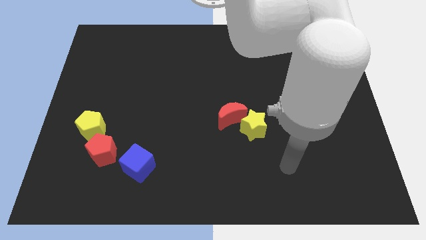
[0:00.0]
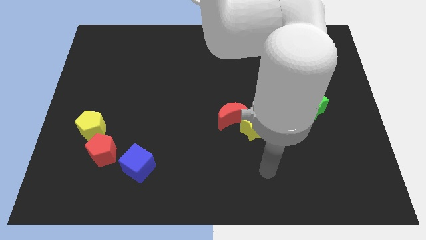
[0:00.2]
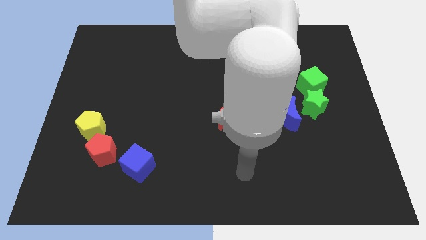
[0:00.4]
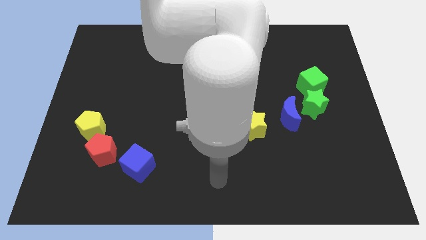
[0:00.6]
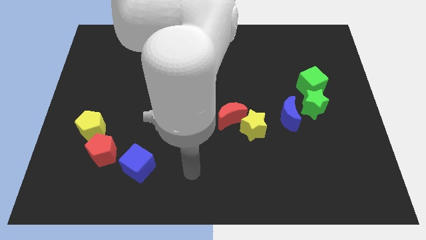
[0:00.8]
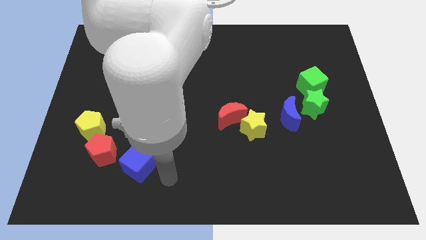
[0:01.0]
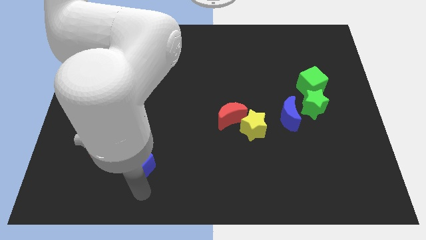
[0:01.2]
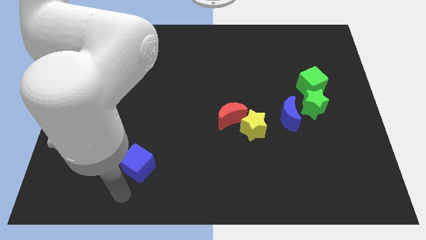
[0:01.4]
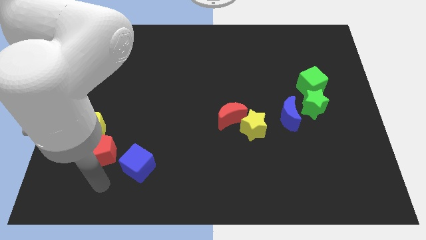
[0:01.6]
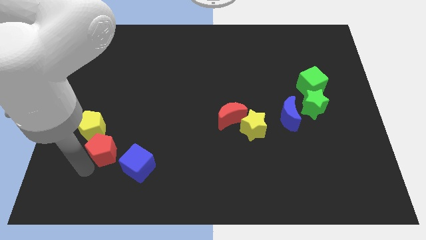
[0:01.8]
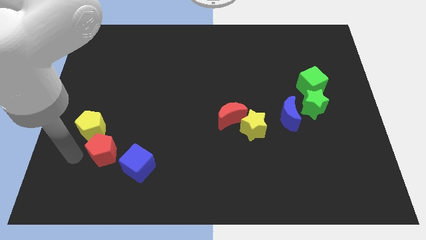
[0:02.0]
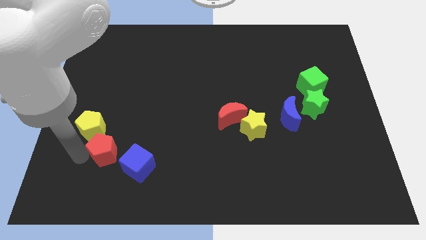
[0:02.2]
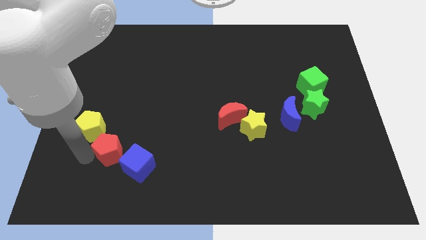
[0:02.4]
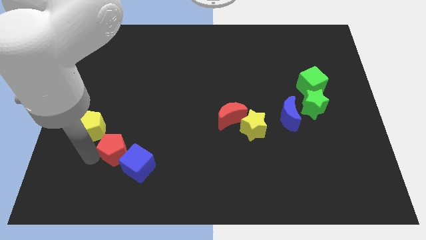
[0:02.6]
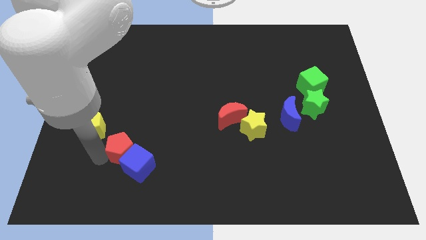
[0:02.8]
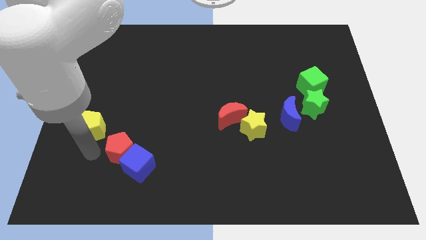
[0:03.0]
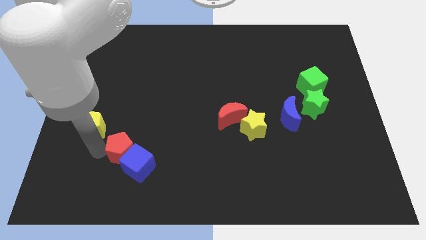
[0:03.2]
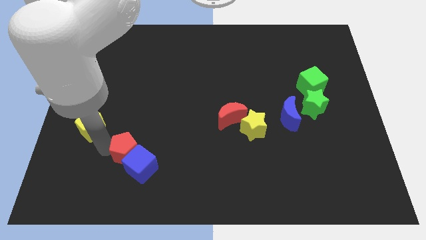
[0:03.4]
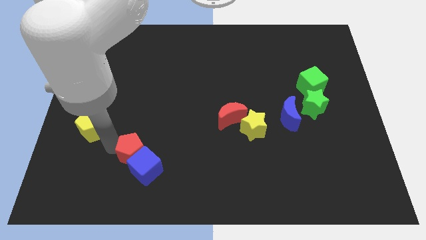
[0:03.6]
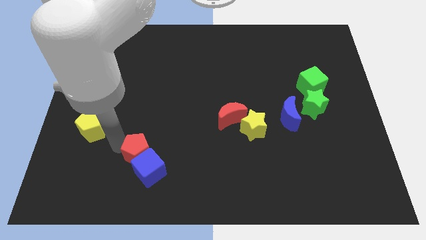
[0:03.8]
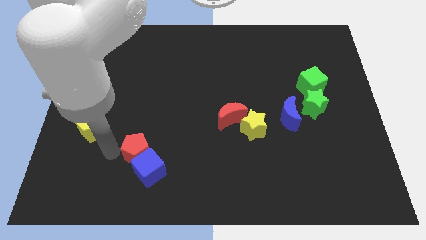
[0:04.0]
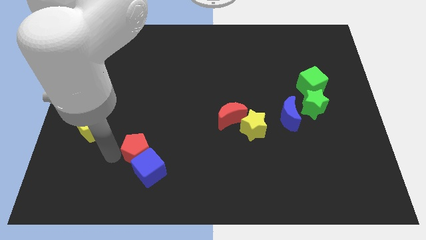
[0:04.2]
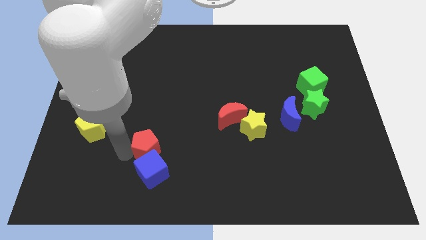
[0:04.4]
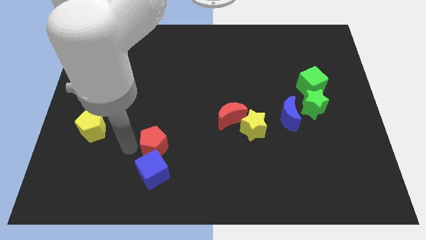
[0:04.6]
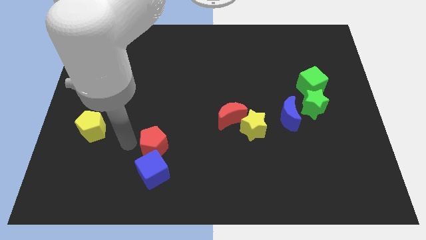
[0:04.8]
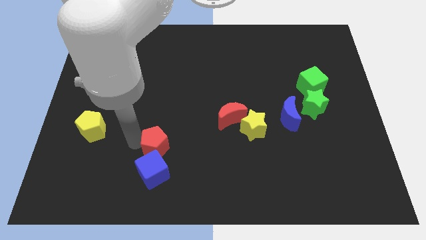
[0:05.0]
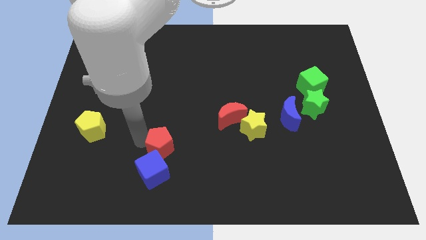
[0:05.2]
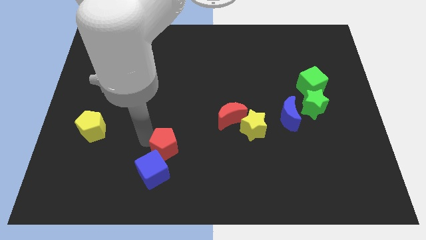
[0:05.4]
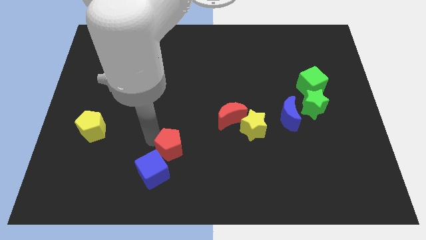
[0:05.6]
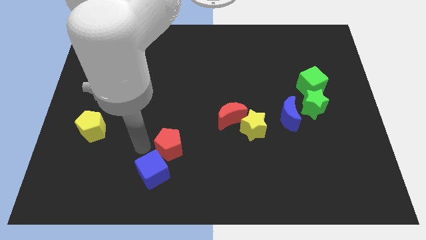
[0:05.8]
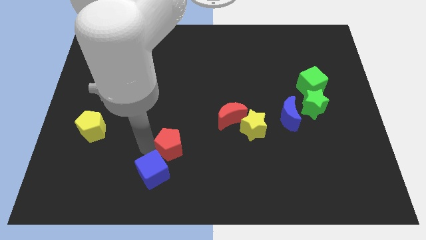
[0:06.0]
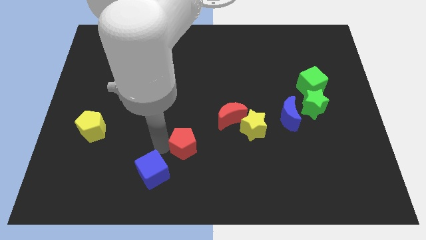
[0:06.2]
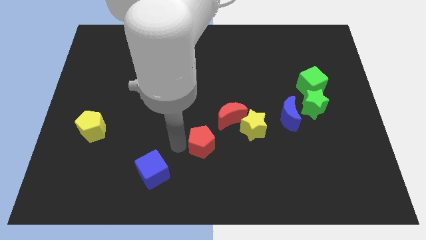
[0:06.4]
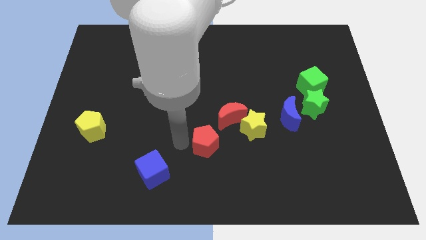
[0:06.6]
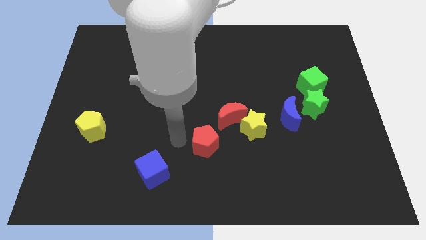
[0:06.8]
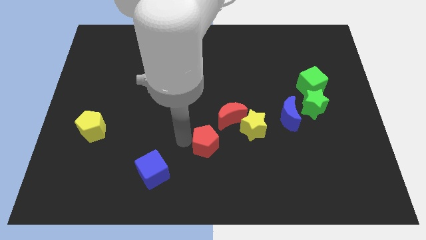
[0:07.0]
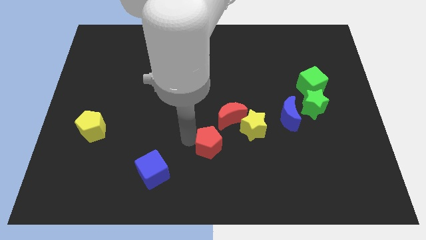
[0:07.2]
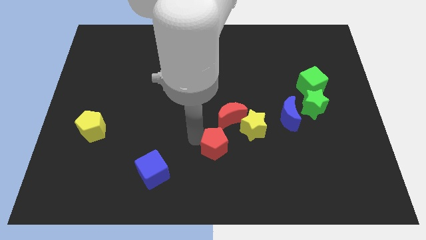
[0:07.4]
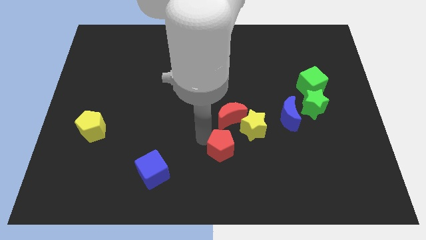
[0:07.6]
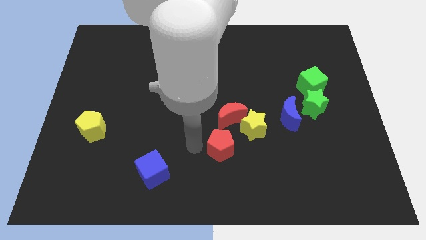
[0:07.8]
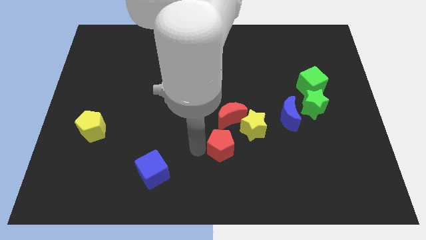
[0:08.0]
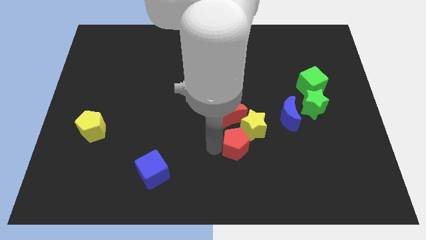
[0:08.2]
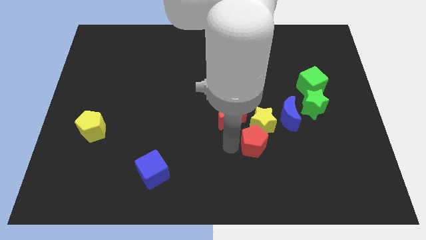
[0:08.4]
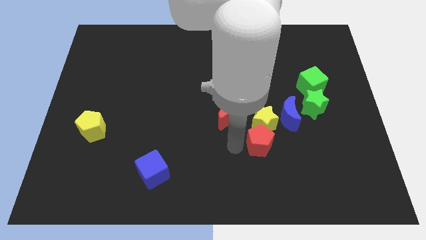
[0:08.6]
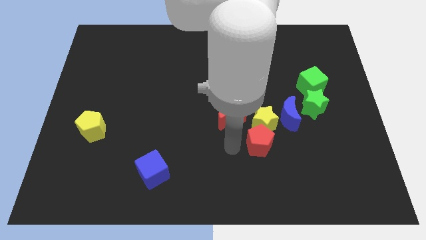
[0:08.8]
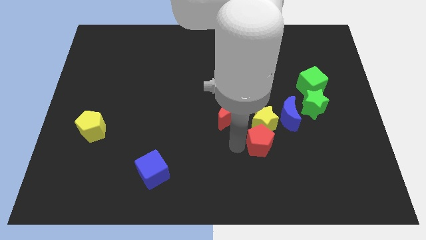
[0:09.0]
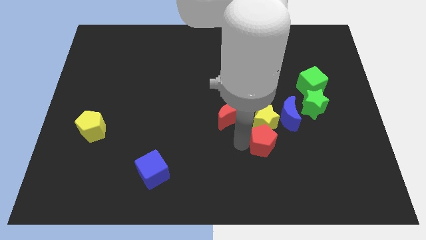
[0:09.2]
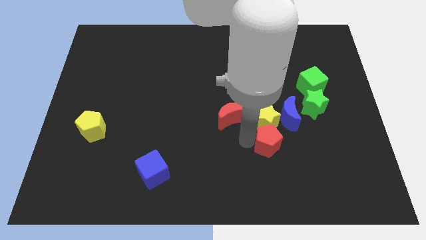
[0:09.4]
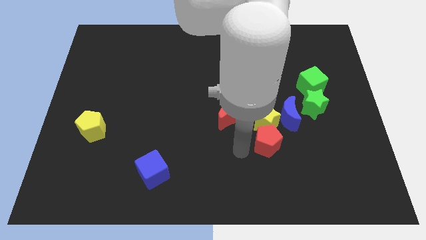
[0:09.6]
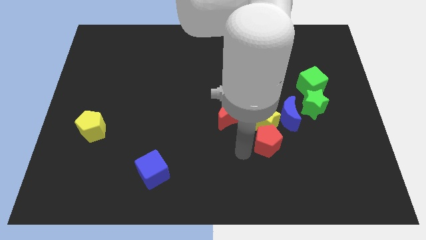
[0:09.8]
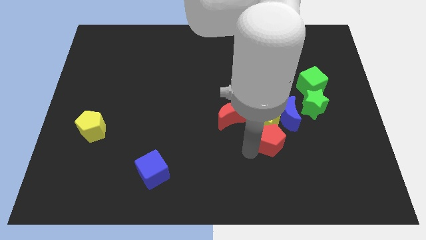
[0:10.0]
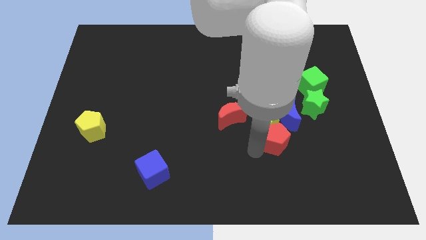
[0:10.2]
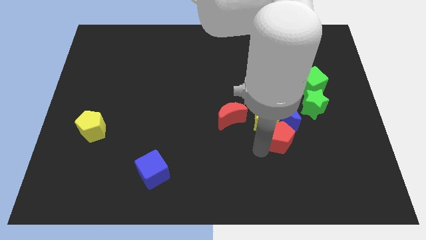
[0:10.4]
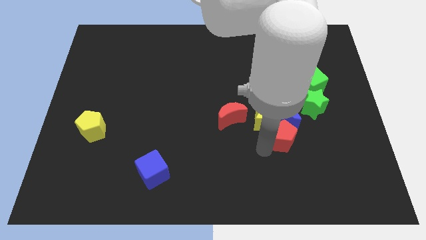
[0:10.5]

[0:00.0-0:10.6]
slide the red pentagon close to the blue moon

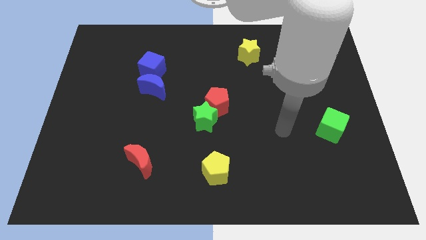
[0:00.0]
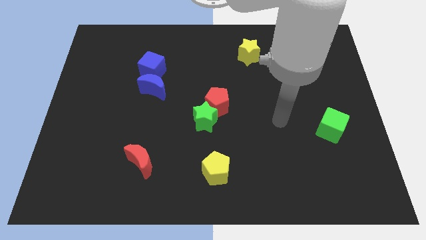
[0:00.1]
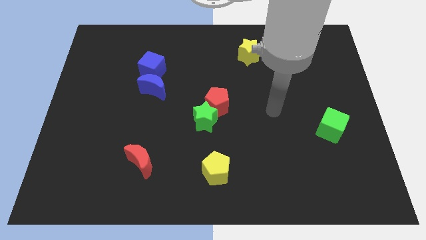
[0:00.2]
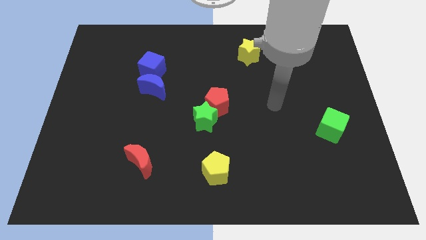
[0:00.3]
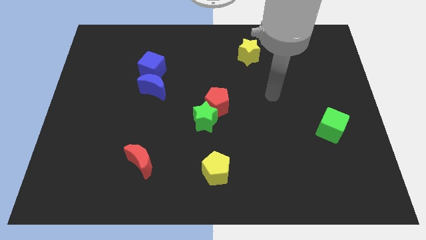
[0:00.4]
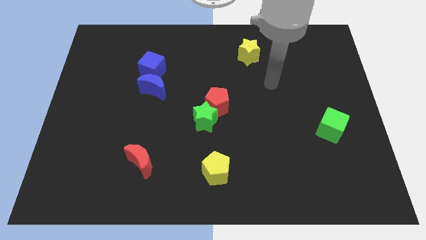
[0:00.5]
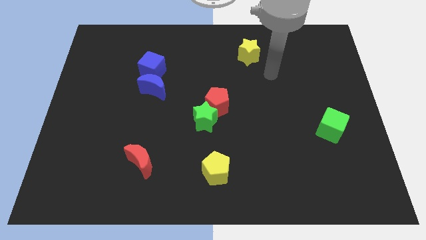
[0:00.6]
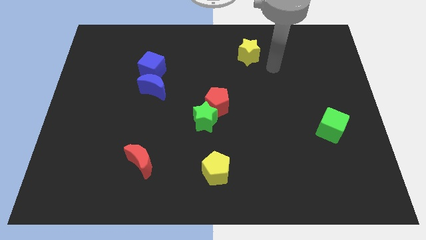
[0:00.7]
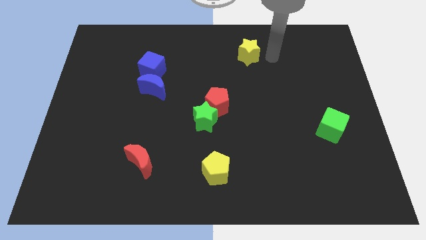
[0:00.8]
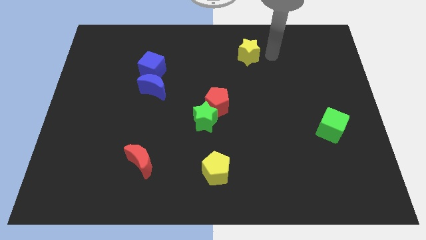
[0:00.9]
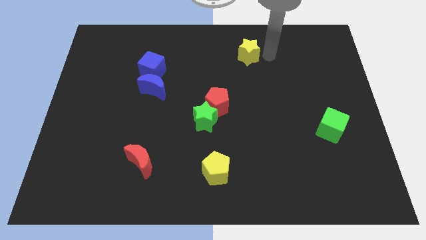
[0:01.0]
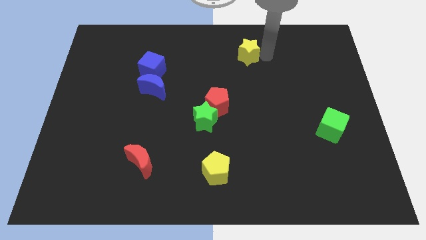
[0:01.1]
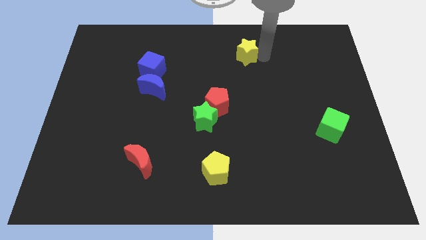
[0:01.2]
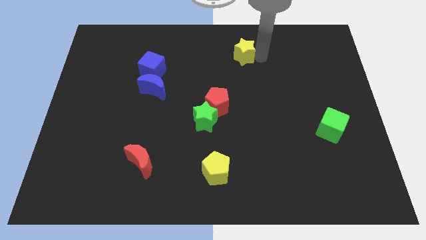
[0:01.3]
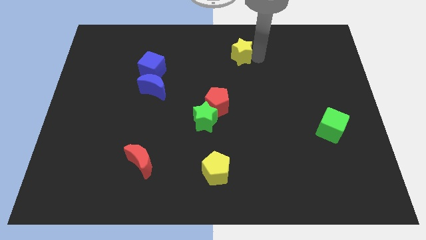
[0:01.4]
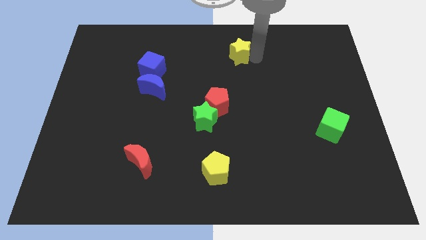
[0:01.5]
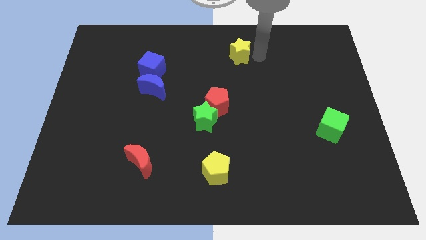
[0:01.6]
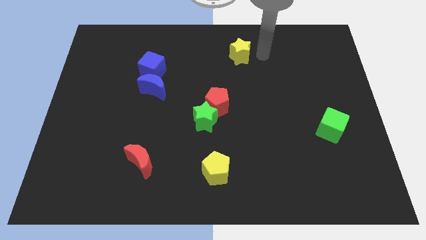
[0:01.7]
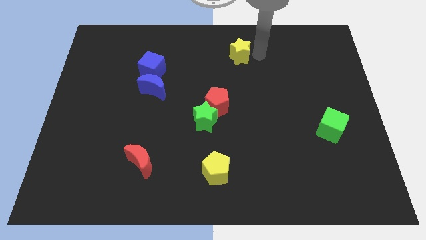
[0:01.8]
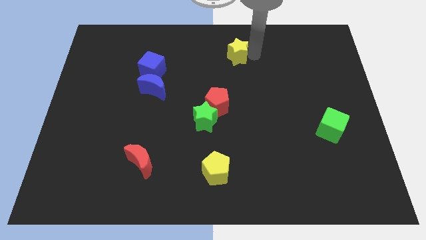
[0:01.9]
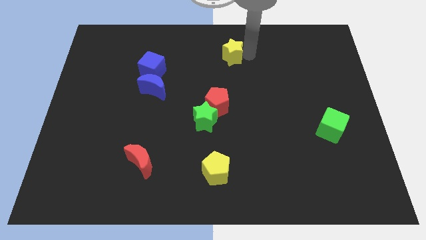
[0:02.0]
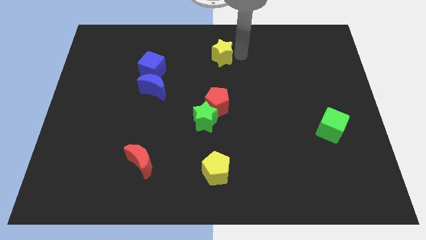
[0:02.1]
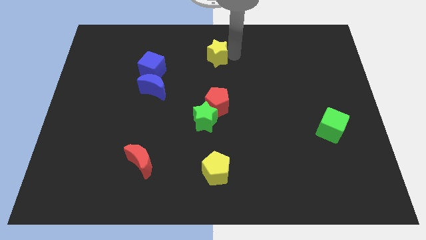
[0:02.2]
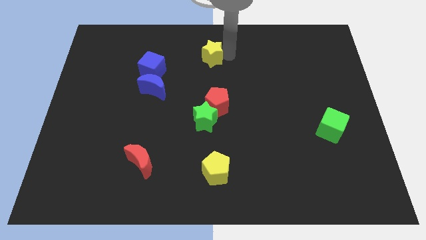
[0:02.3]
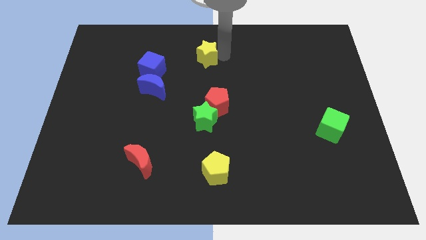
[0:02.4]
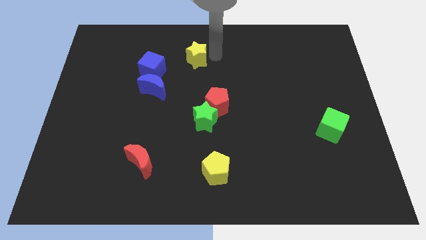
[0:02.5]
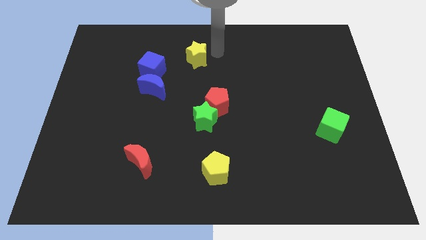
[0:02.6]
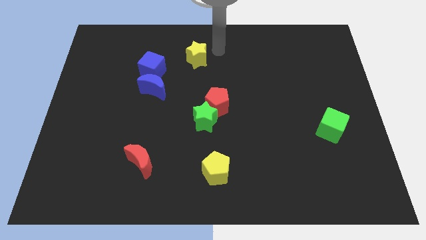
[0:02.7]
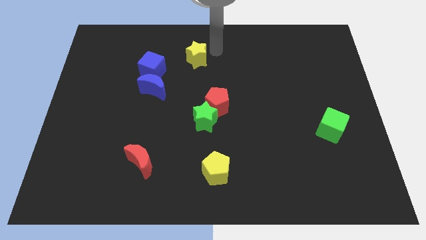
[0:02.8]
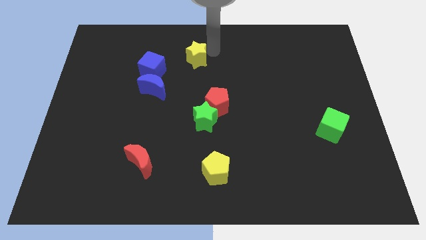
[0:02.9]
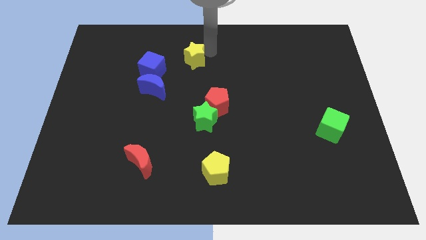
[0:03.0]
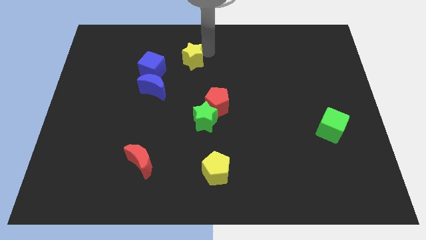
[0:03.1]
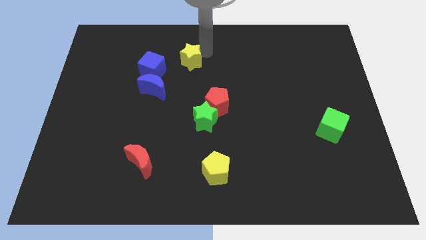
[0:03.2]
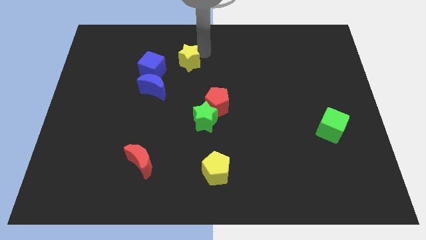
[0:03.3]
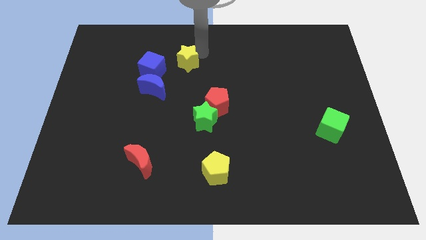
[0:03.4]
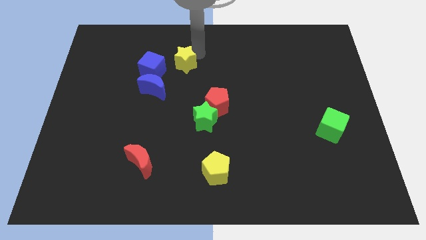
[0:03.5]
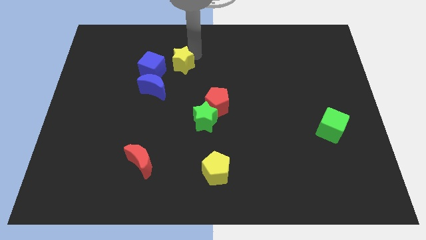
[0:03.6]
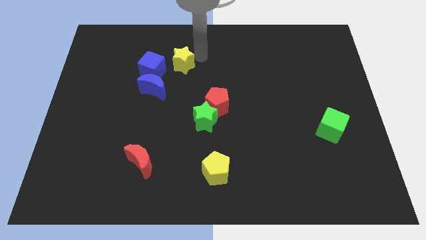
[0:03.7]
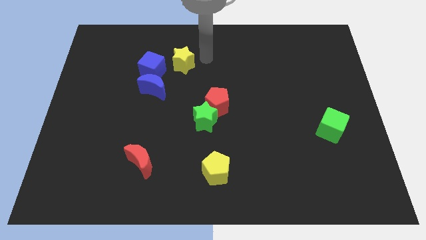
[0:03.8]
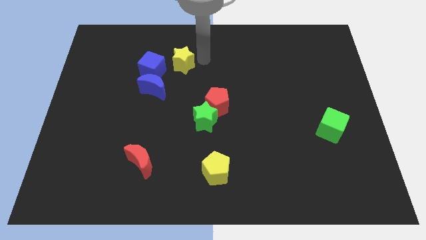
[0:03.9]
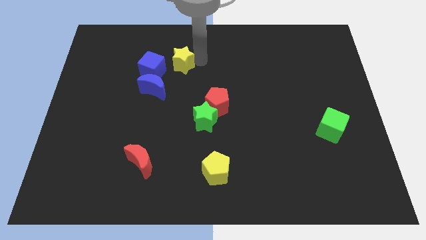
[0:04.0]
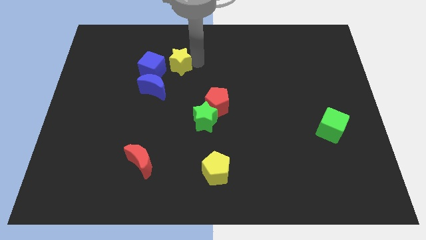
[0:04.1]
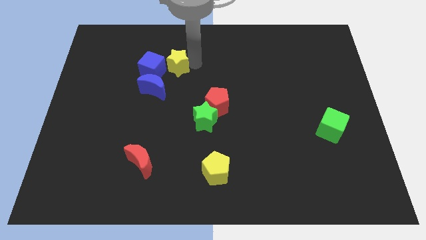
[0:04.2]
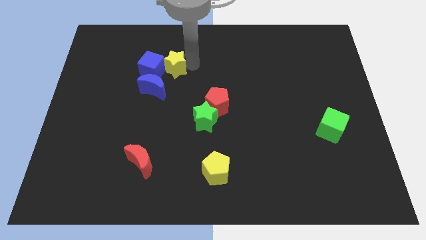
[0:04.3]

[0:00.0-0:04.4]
slide the yellow star close to the blue cube
